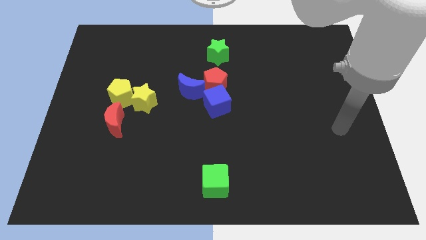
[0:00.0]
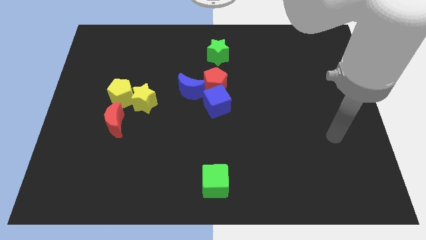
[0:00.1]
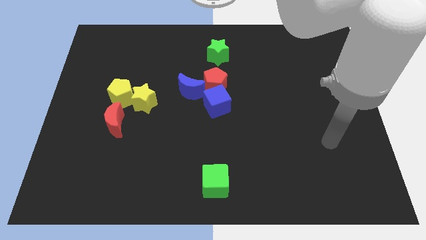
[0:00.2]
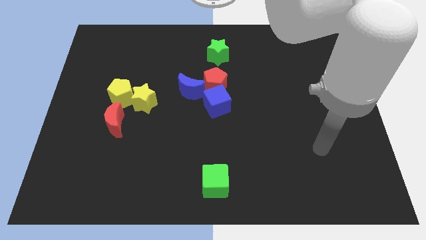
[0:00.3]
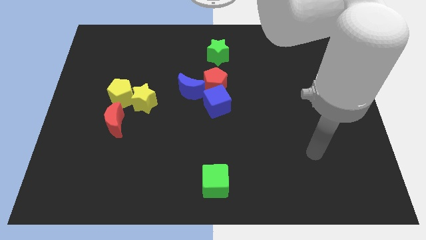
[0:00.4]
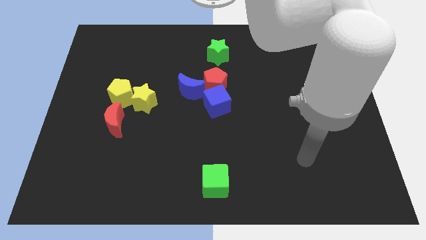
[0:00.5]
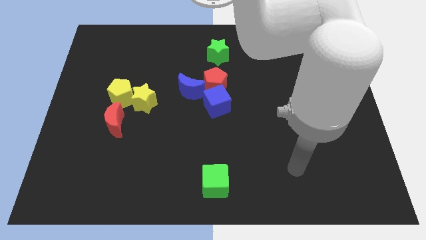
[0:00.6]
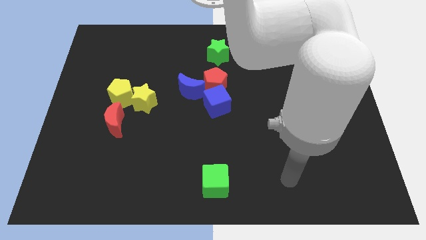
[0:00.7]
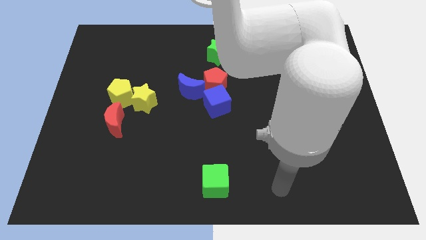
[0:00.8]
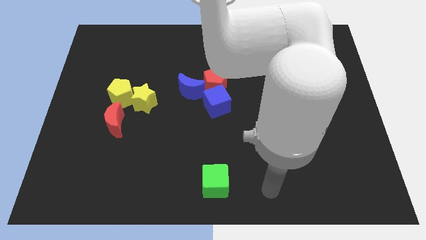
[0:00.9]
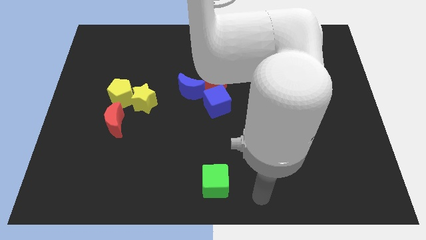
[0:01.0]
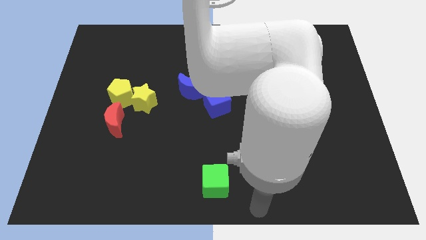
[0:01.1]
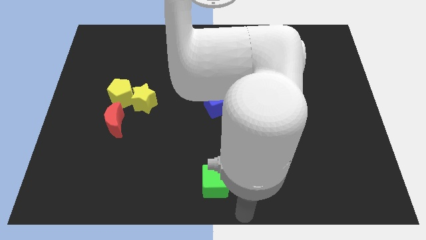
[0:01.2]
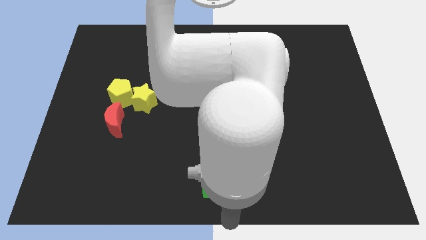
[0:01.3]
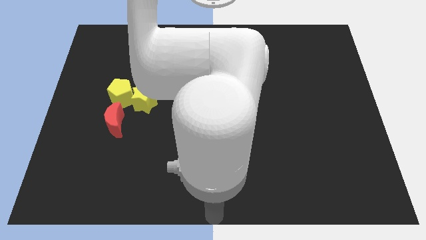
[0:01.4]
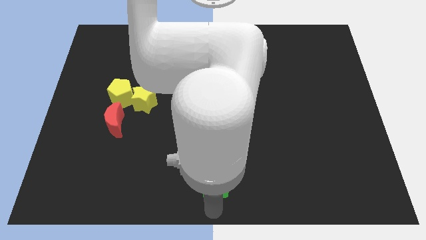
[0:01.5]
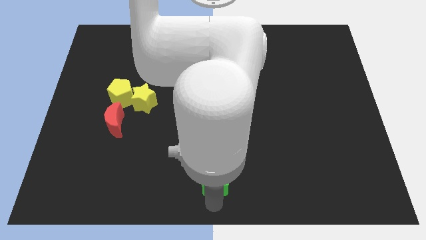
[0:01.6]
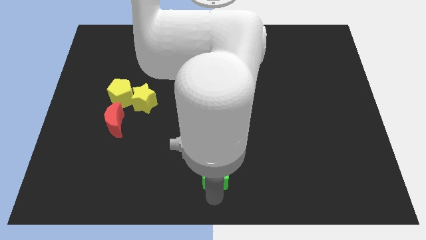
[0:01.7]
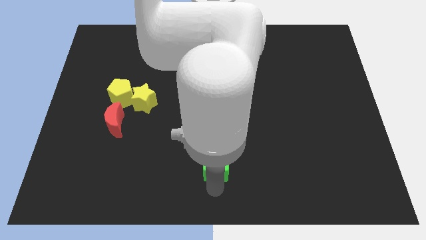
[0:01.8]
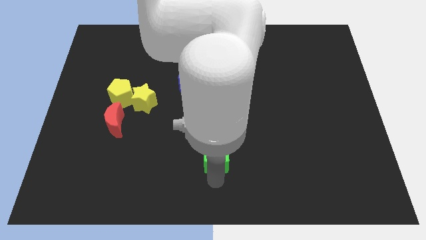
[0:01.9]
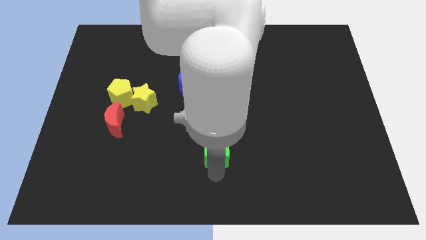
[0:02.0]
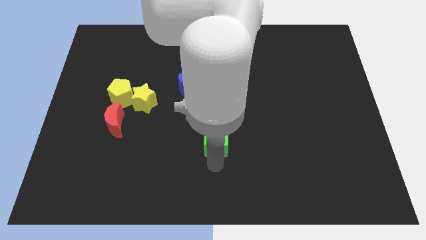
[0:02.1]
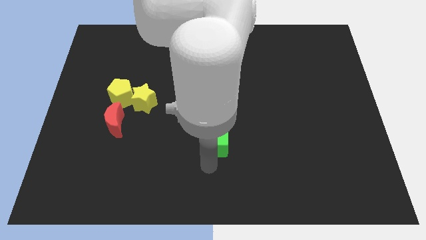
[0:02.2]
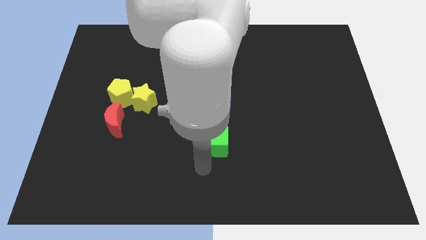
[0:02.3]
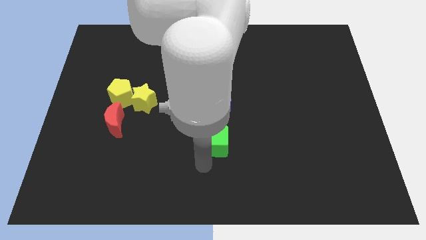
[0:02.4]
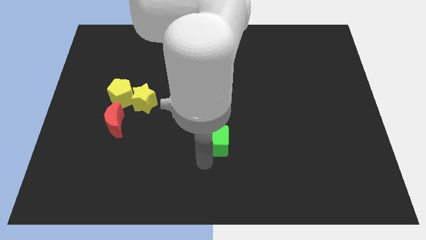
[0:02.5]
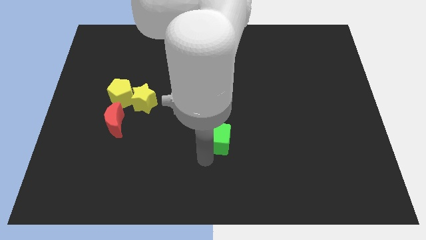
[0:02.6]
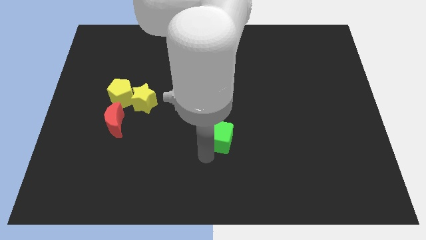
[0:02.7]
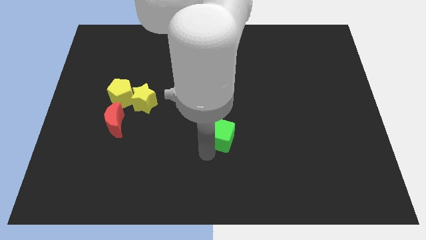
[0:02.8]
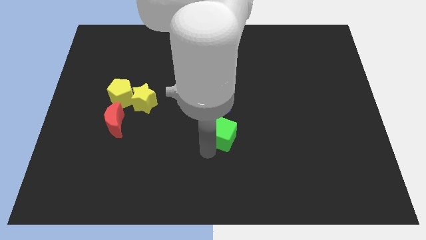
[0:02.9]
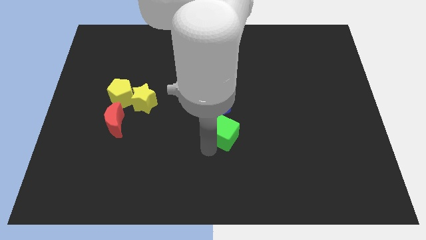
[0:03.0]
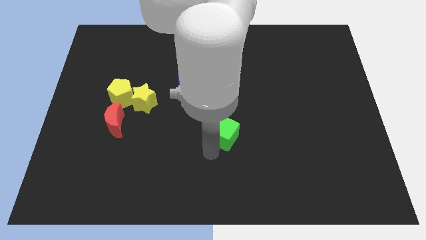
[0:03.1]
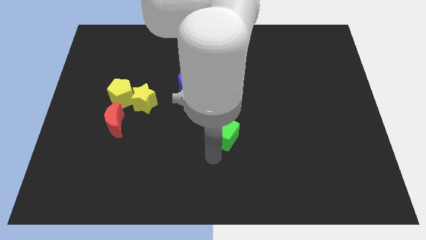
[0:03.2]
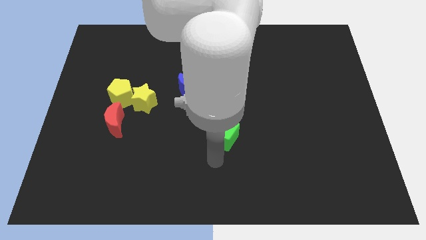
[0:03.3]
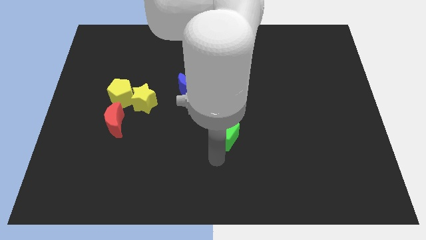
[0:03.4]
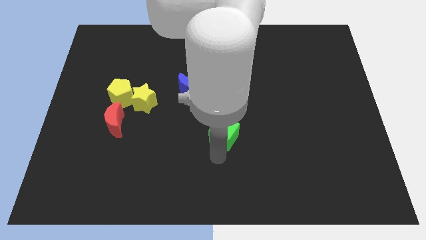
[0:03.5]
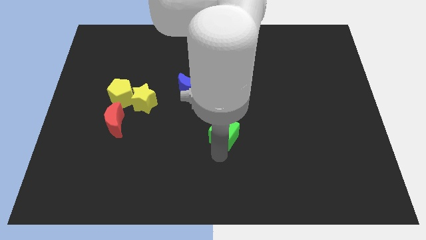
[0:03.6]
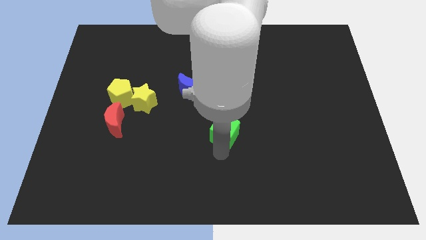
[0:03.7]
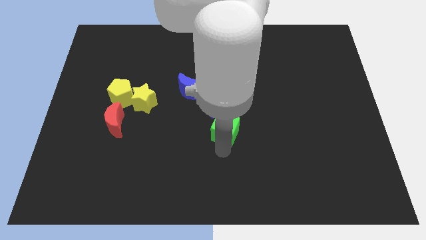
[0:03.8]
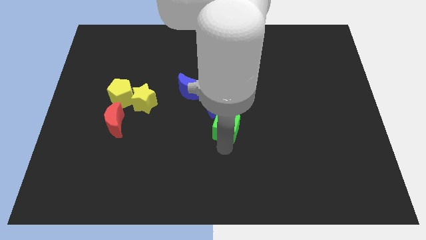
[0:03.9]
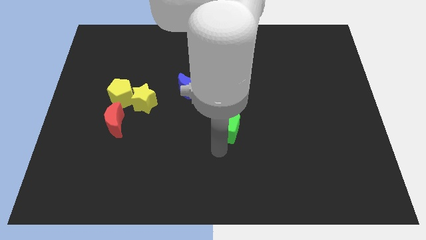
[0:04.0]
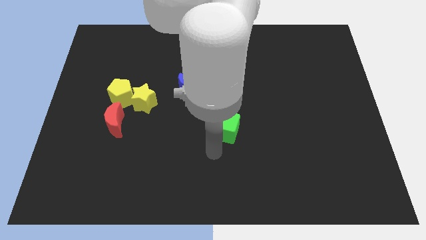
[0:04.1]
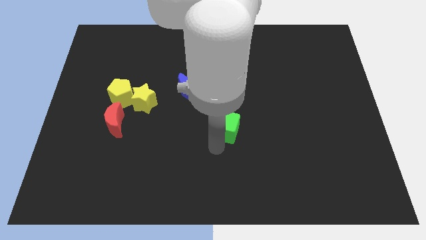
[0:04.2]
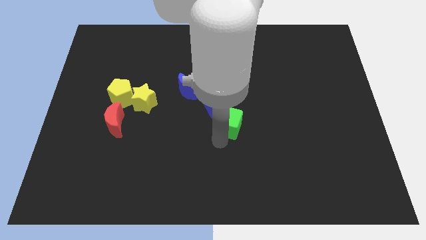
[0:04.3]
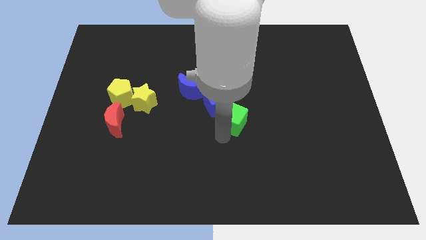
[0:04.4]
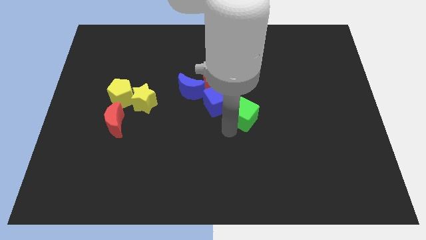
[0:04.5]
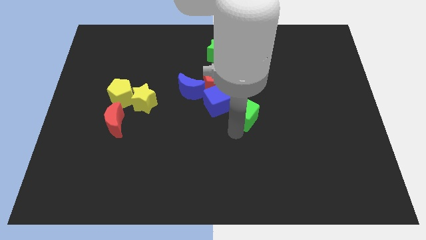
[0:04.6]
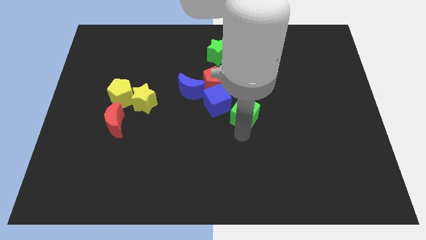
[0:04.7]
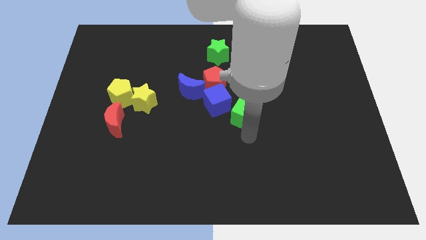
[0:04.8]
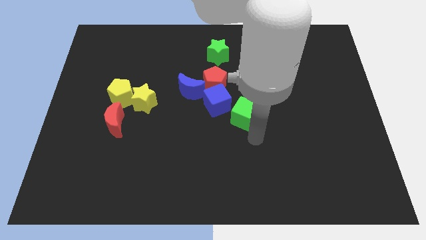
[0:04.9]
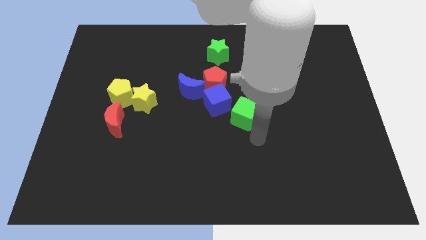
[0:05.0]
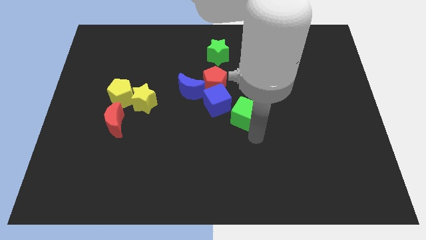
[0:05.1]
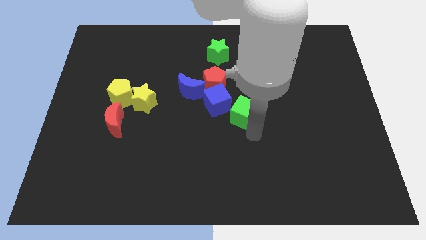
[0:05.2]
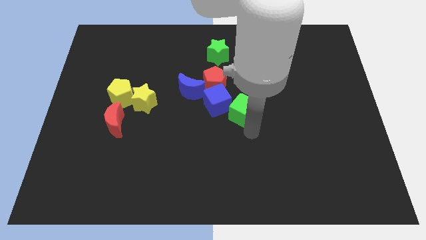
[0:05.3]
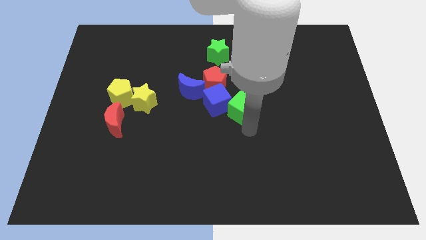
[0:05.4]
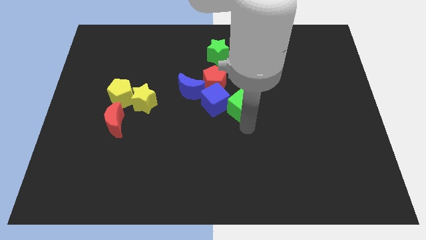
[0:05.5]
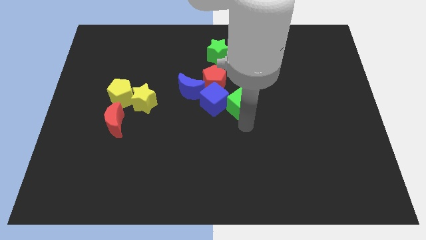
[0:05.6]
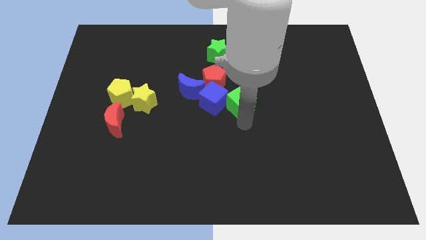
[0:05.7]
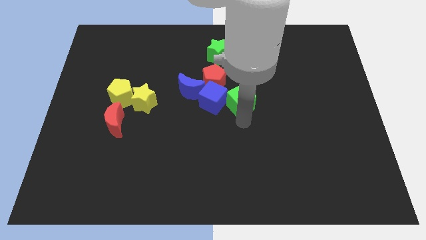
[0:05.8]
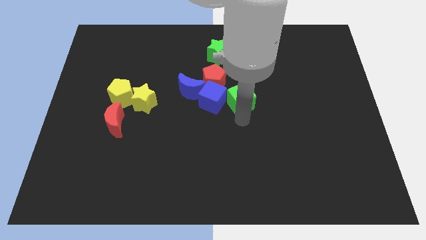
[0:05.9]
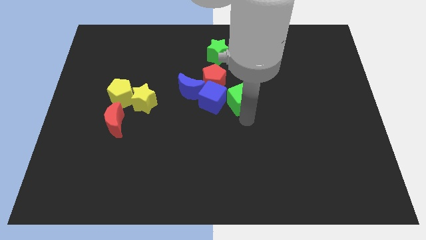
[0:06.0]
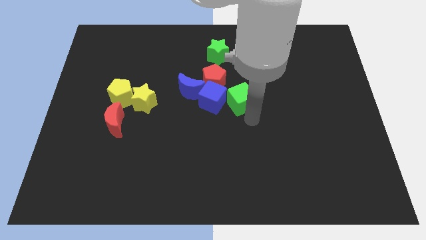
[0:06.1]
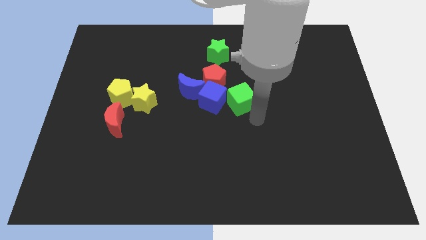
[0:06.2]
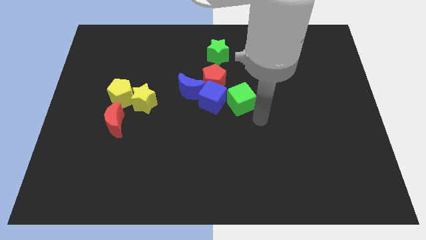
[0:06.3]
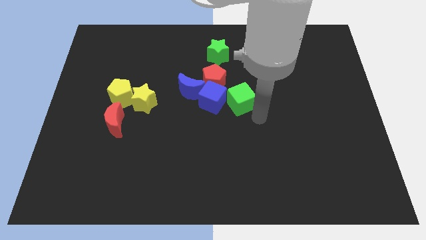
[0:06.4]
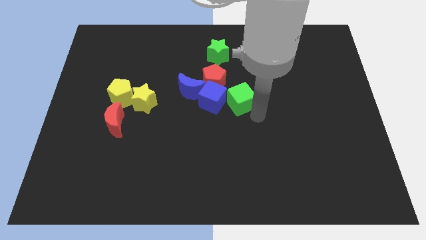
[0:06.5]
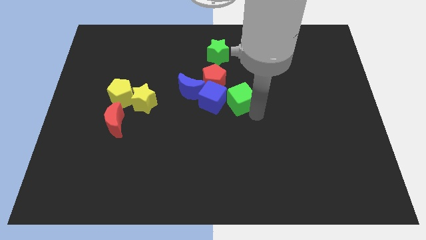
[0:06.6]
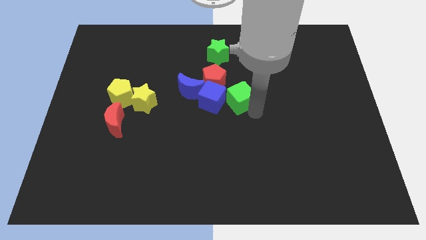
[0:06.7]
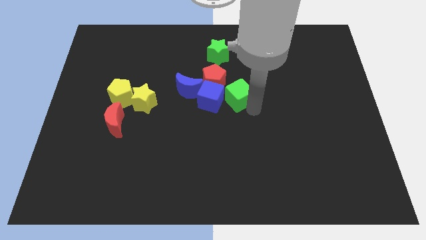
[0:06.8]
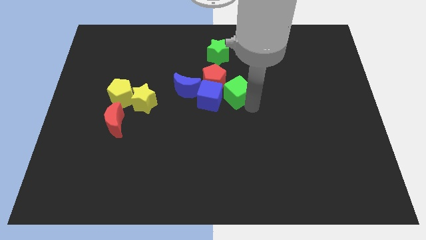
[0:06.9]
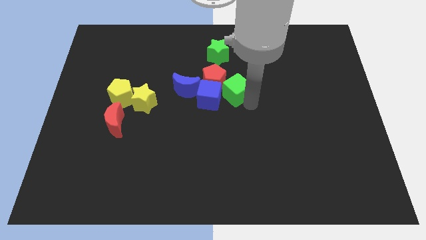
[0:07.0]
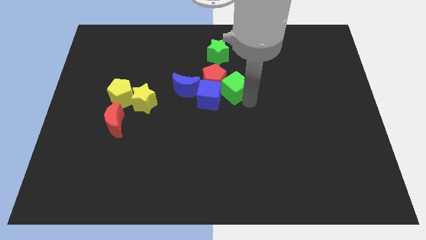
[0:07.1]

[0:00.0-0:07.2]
put the green cube close to the red pentagon

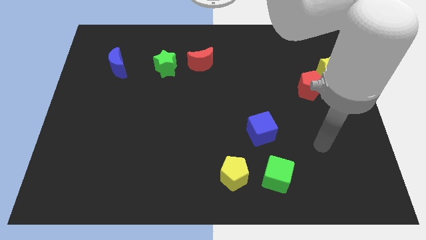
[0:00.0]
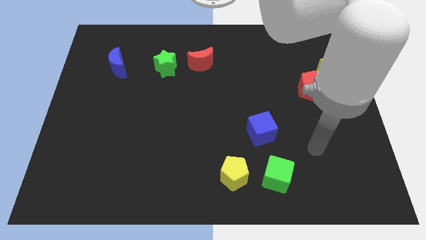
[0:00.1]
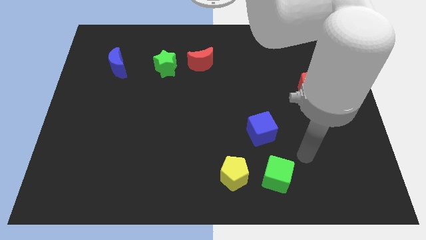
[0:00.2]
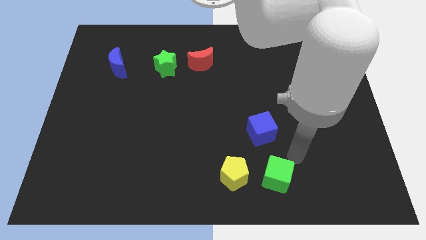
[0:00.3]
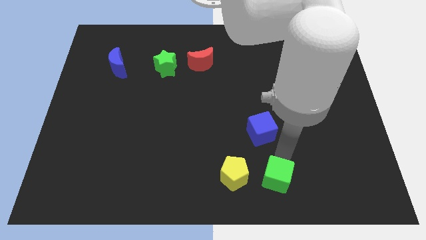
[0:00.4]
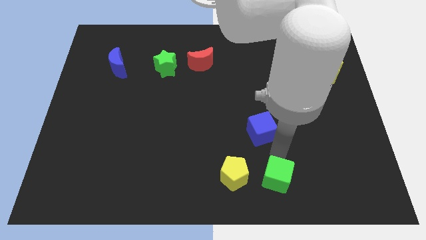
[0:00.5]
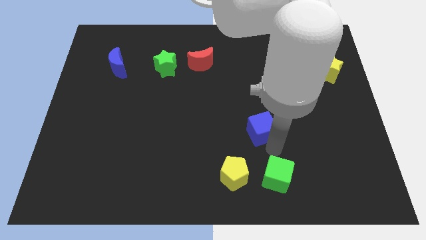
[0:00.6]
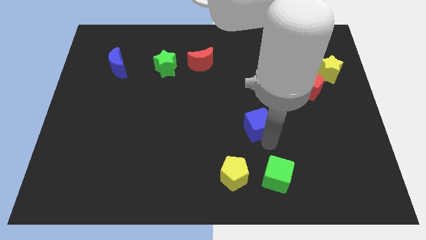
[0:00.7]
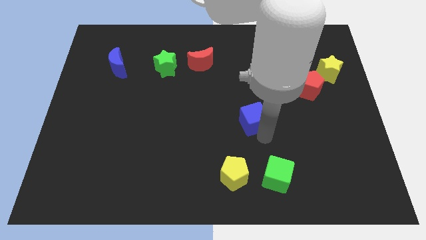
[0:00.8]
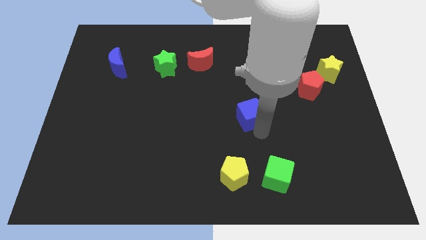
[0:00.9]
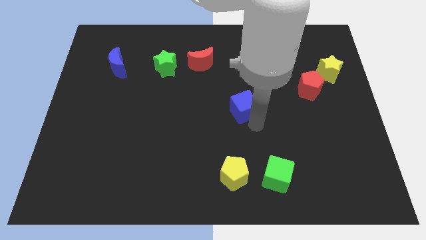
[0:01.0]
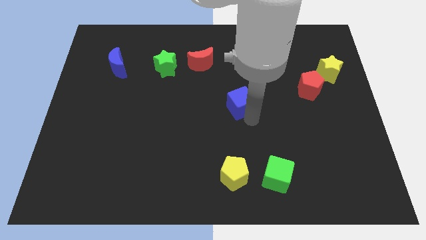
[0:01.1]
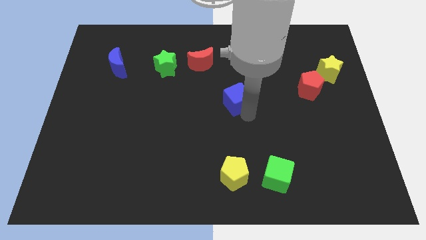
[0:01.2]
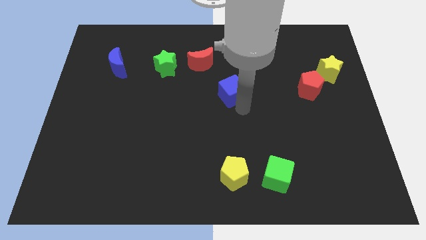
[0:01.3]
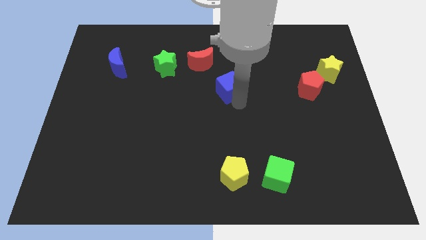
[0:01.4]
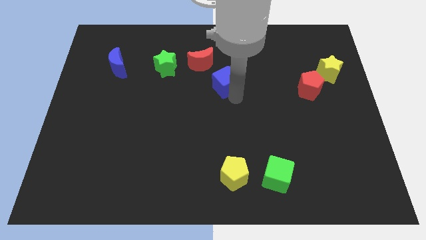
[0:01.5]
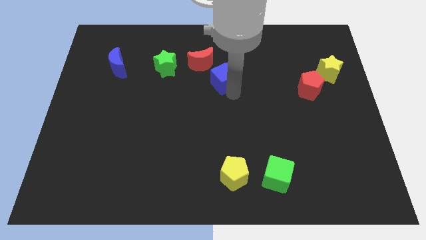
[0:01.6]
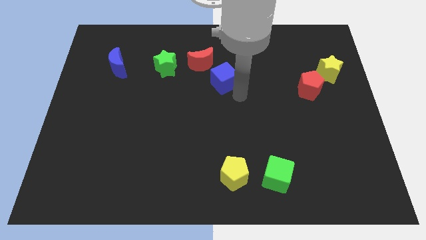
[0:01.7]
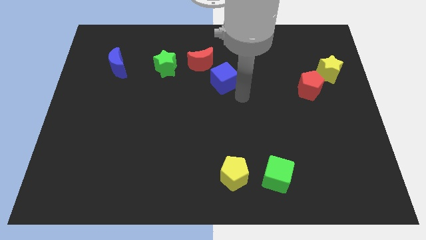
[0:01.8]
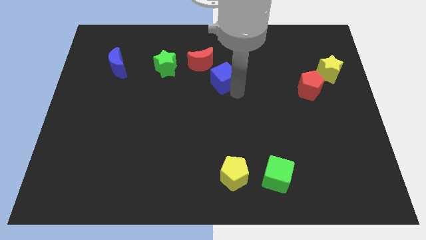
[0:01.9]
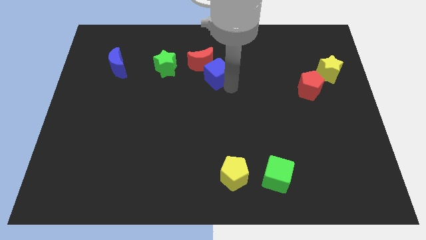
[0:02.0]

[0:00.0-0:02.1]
move the blue cube next to the red moon
